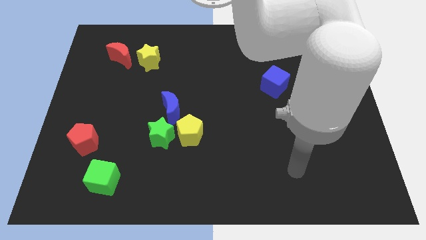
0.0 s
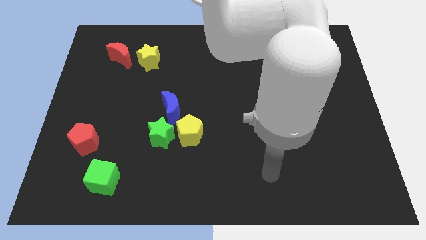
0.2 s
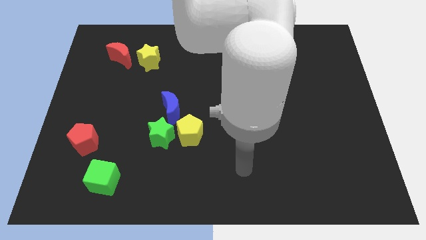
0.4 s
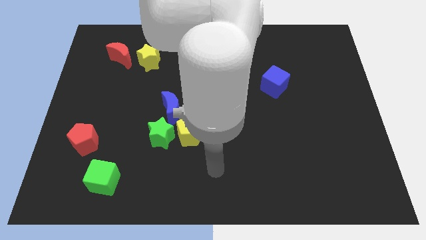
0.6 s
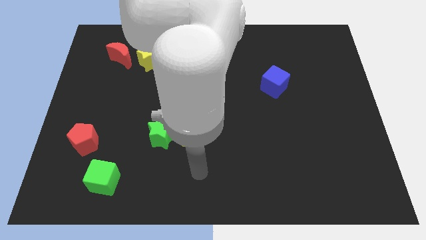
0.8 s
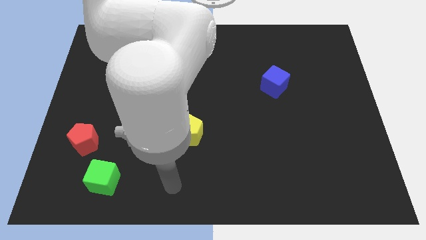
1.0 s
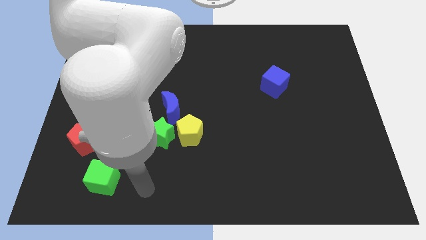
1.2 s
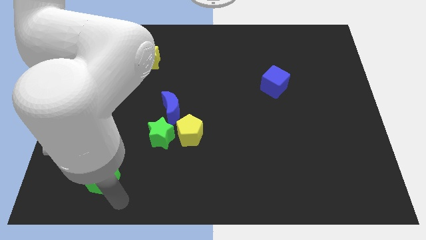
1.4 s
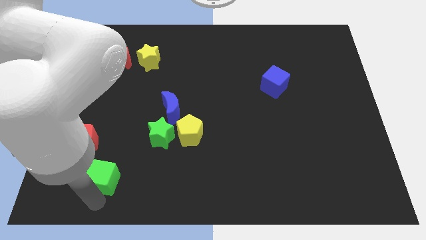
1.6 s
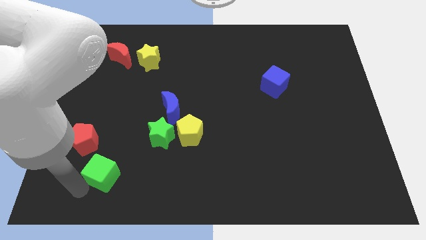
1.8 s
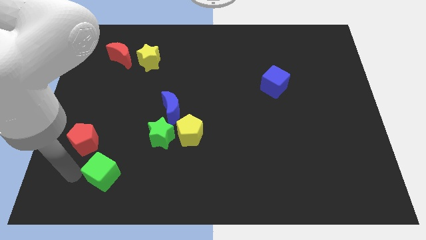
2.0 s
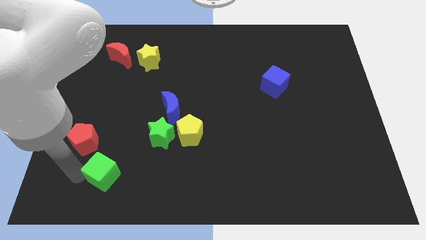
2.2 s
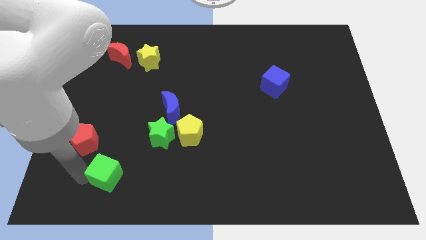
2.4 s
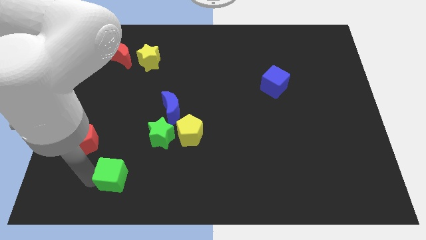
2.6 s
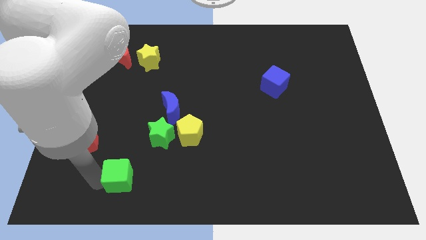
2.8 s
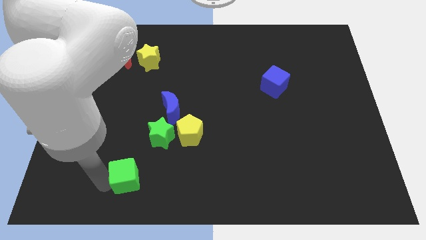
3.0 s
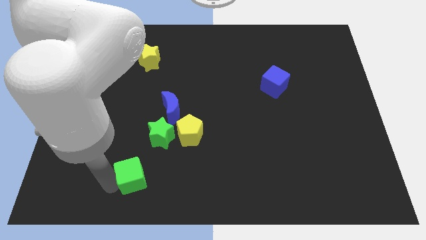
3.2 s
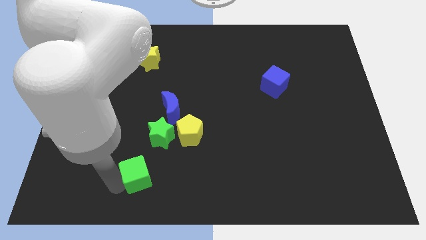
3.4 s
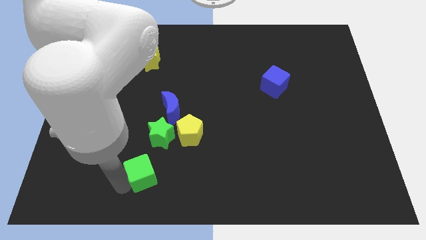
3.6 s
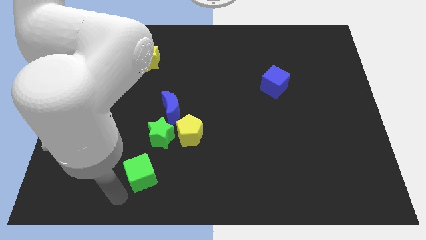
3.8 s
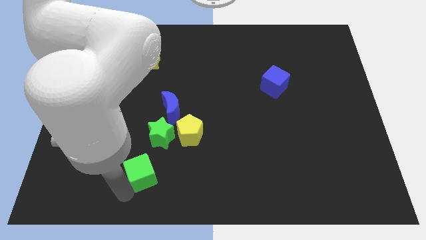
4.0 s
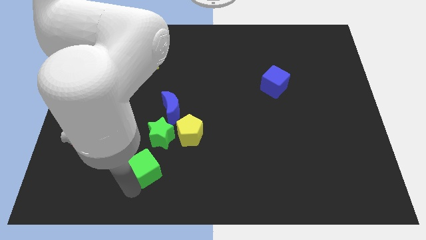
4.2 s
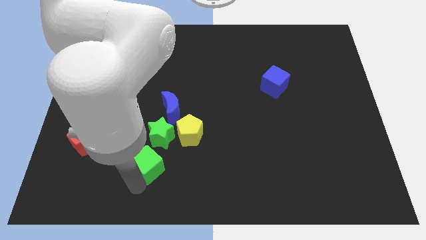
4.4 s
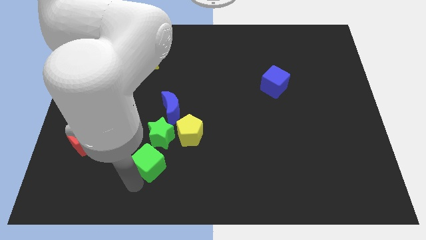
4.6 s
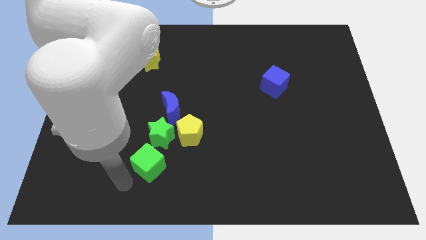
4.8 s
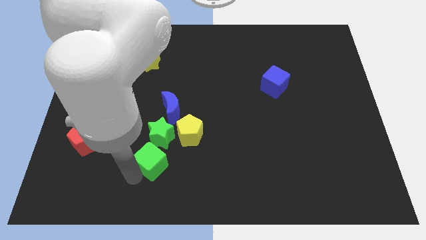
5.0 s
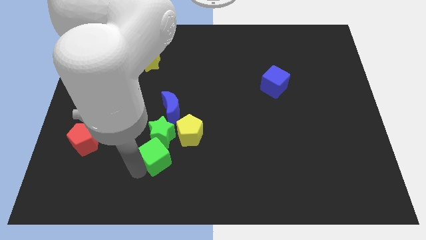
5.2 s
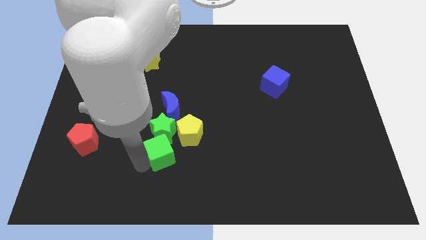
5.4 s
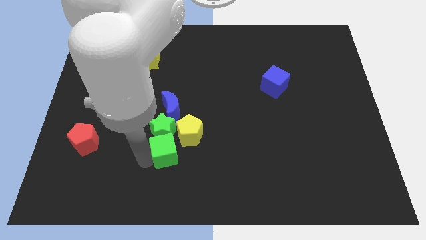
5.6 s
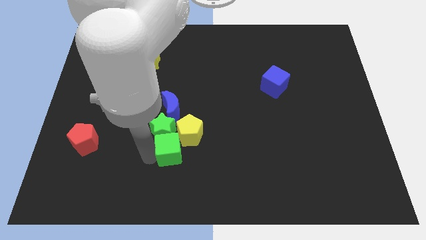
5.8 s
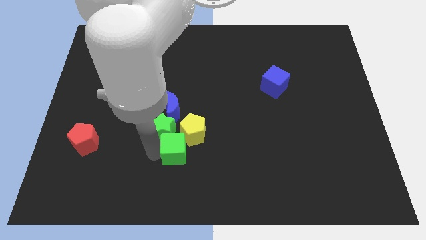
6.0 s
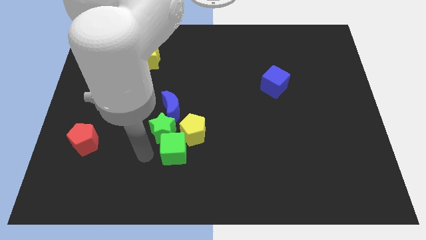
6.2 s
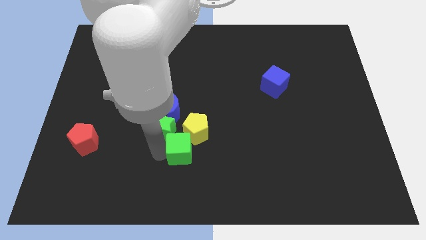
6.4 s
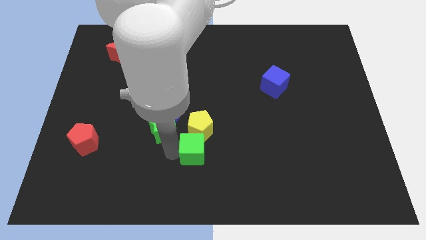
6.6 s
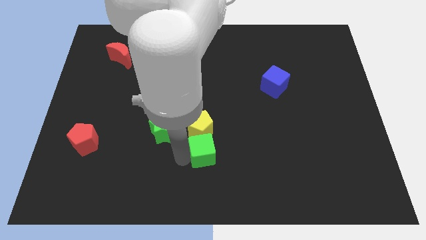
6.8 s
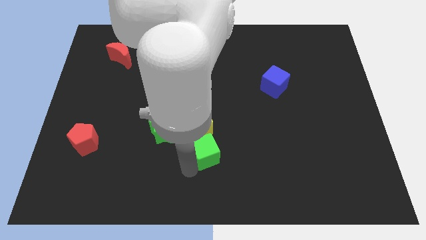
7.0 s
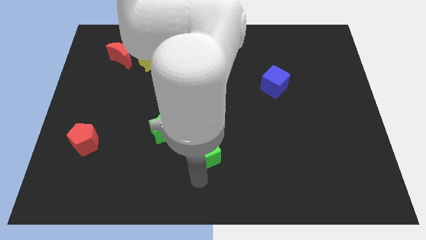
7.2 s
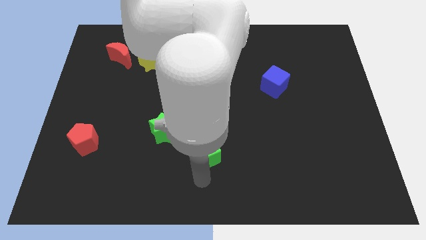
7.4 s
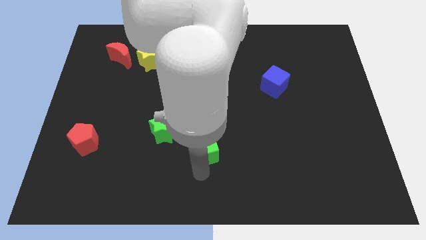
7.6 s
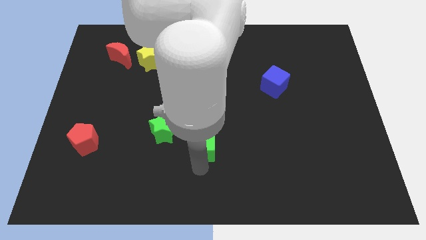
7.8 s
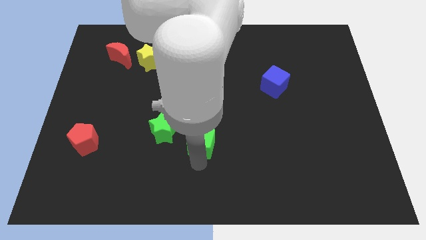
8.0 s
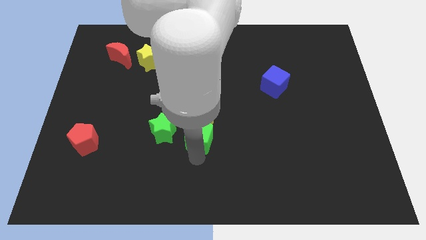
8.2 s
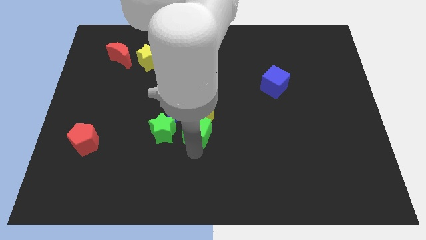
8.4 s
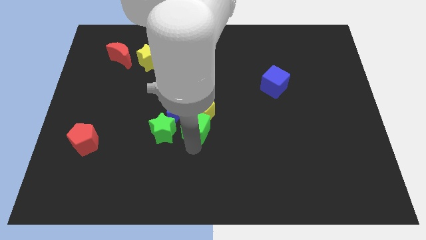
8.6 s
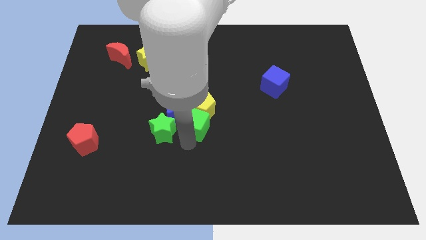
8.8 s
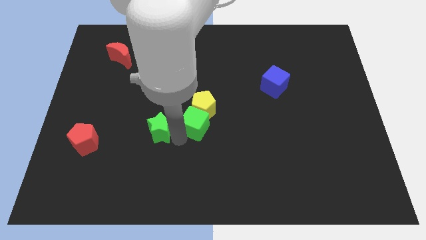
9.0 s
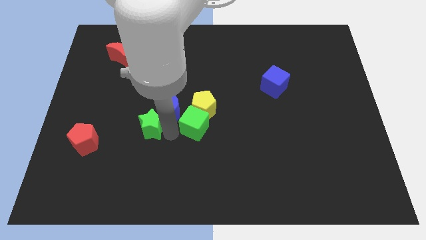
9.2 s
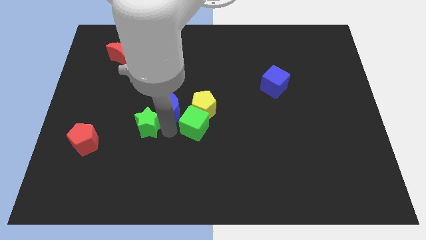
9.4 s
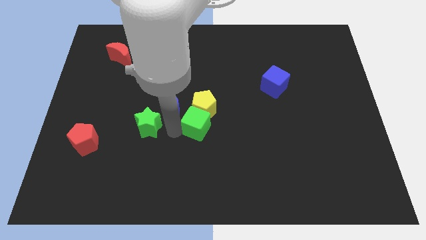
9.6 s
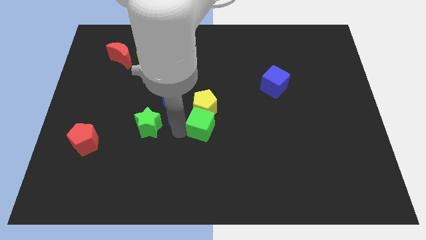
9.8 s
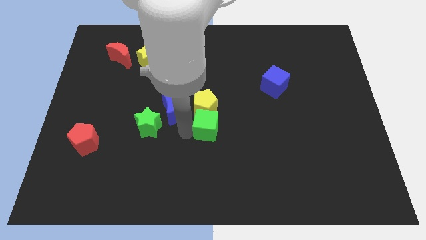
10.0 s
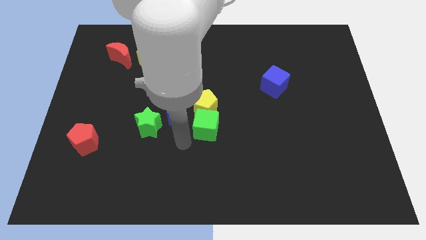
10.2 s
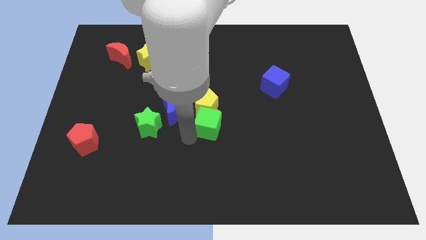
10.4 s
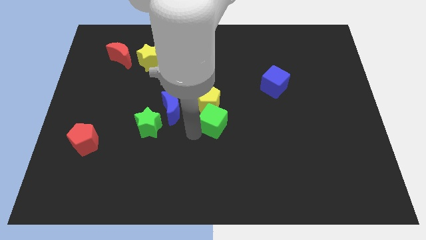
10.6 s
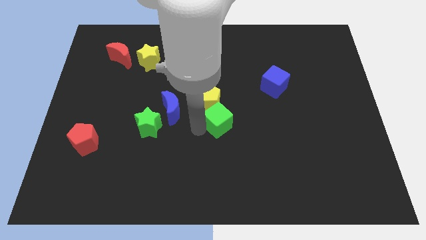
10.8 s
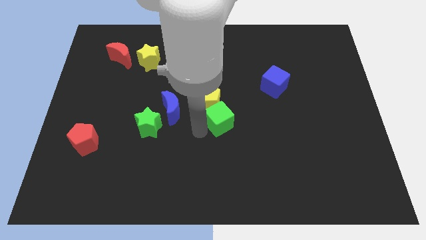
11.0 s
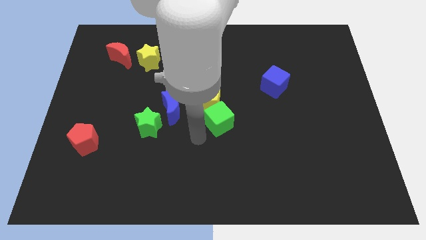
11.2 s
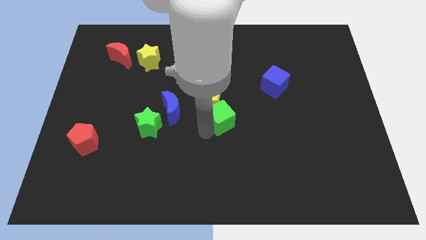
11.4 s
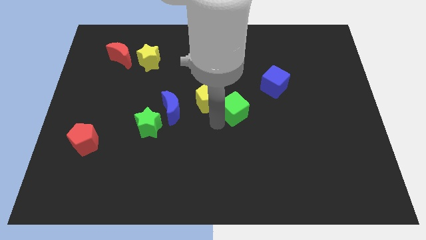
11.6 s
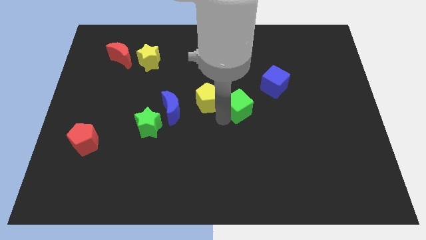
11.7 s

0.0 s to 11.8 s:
move the green cube to the bottom left of the blue cube

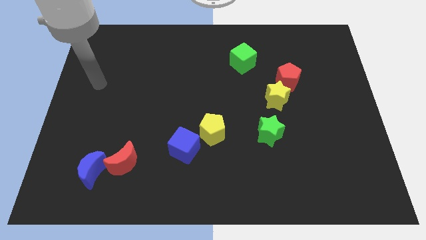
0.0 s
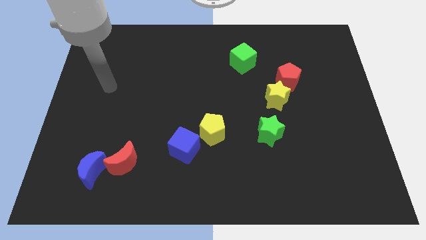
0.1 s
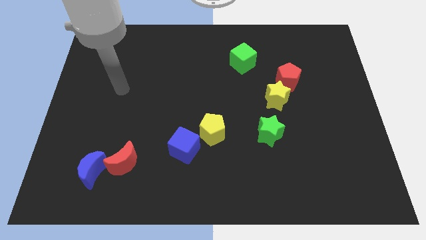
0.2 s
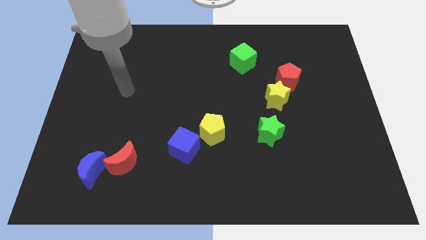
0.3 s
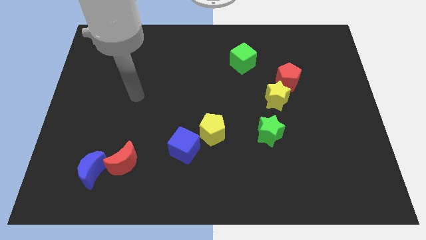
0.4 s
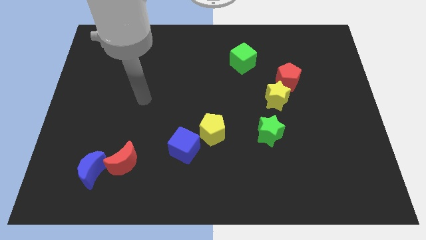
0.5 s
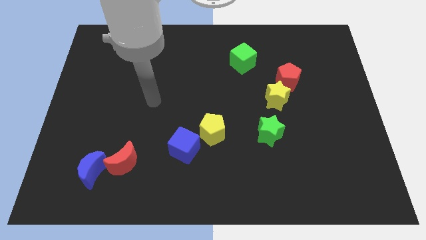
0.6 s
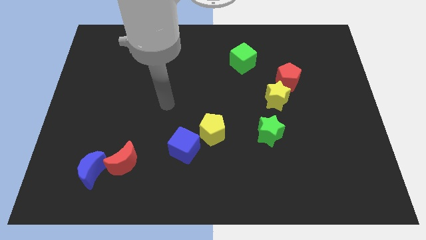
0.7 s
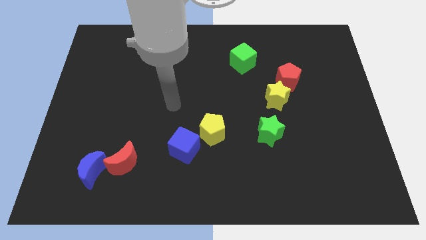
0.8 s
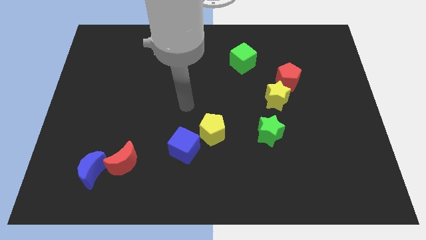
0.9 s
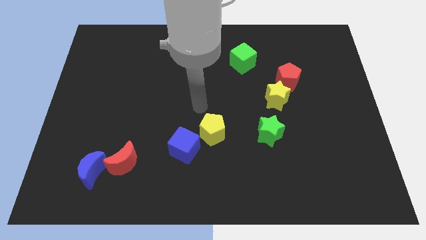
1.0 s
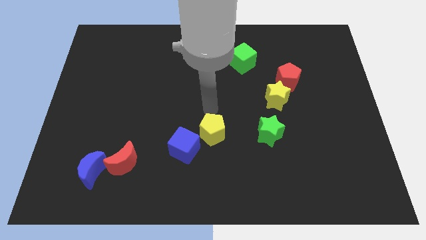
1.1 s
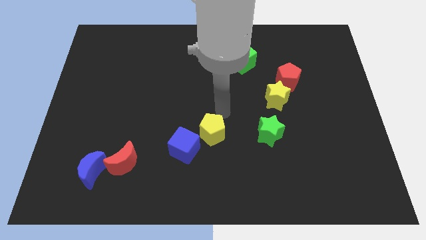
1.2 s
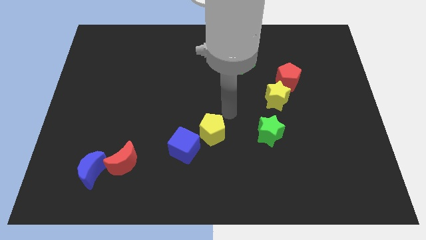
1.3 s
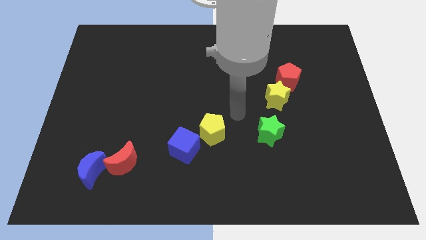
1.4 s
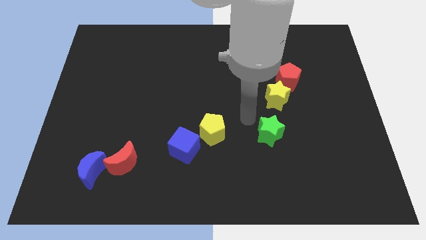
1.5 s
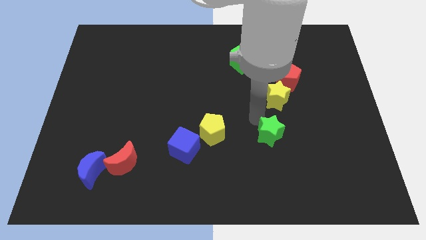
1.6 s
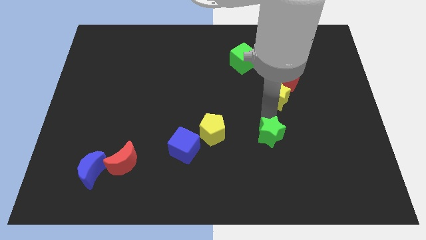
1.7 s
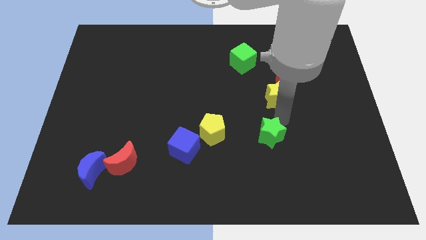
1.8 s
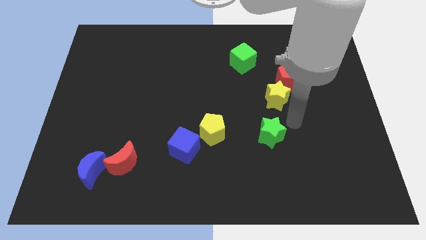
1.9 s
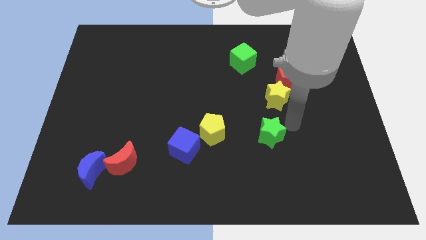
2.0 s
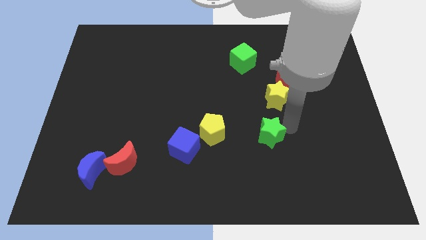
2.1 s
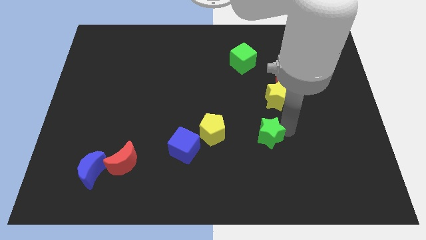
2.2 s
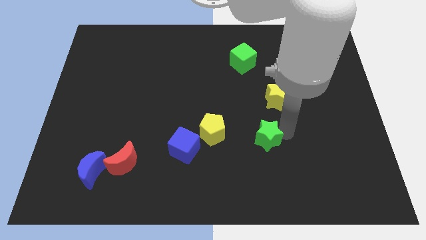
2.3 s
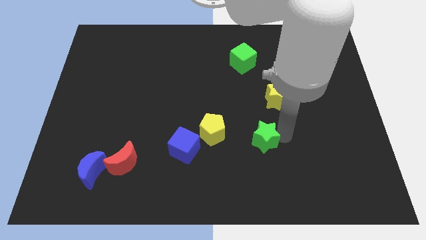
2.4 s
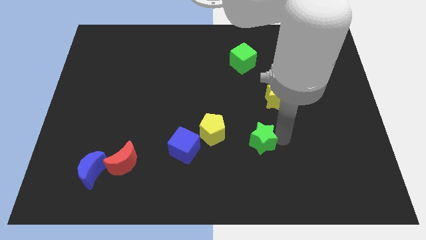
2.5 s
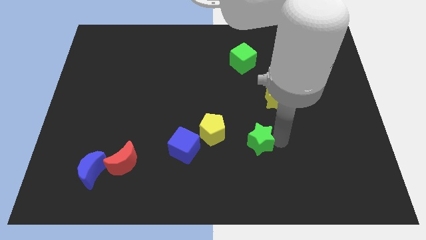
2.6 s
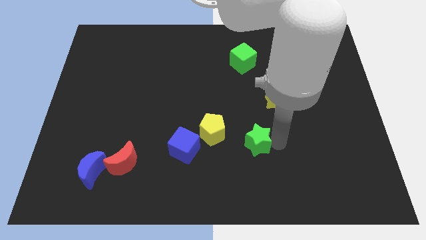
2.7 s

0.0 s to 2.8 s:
put the green star diagonally down and to the right of the yellow pentagon
